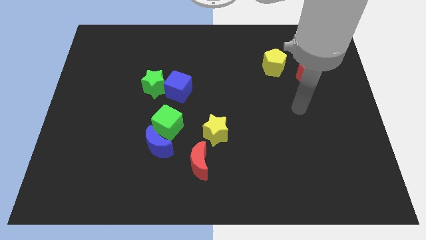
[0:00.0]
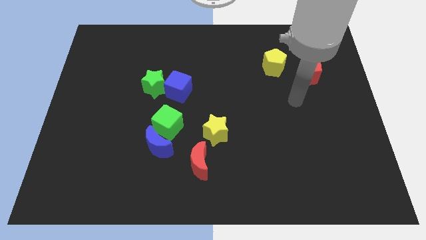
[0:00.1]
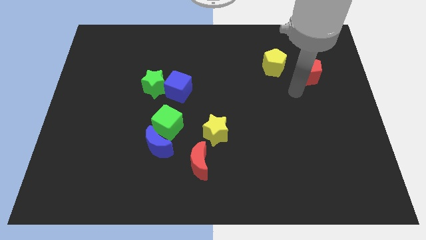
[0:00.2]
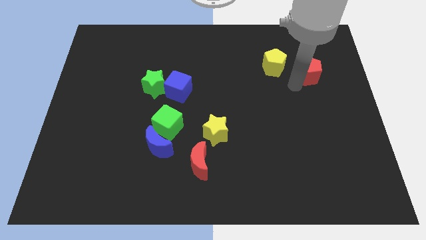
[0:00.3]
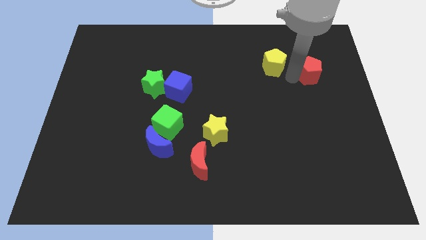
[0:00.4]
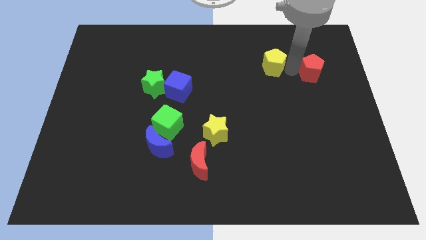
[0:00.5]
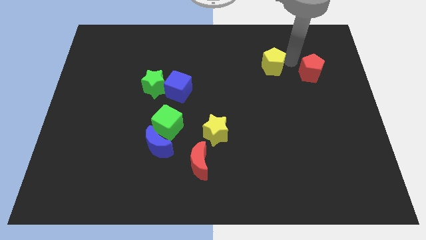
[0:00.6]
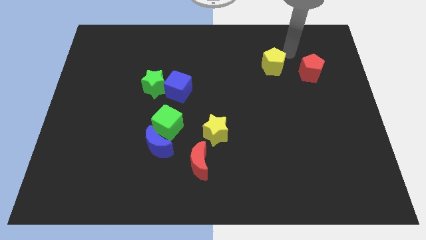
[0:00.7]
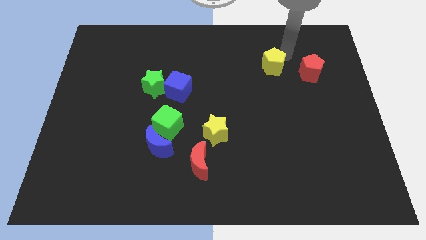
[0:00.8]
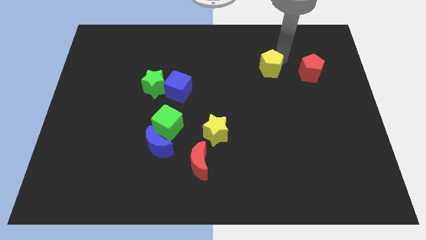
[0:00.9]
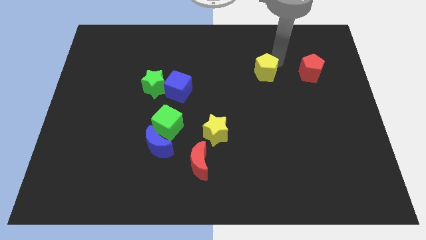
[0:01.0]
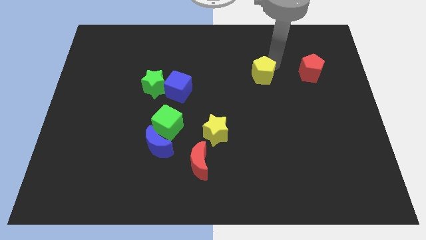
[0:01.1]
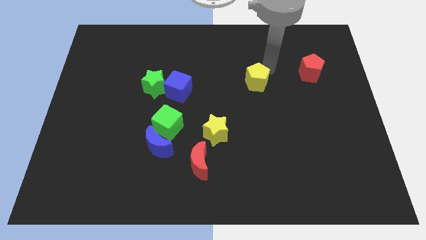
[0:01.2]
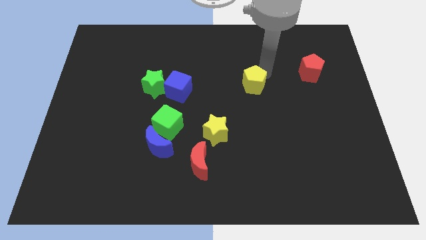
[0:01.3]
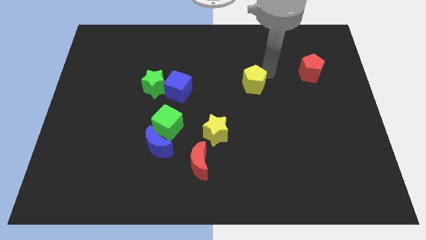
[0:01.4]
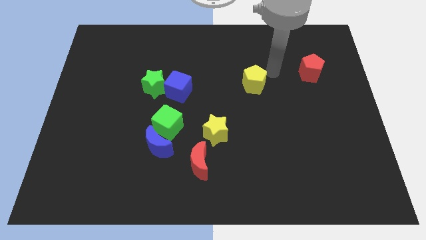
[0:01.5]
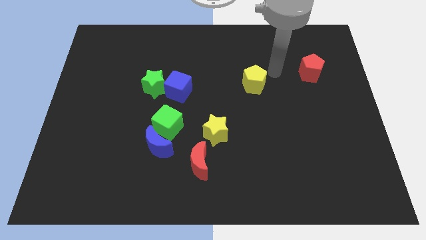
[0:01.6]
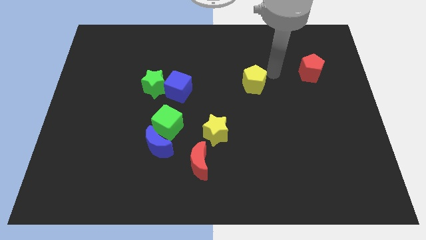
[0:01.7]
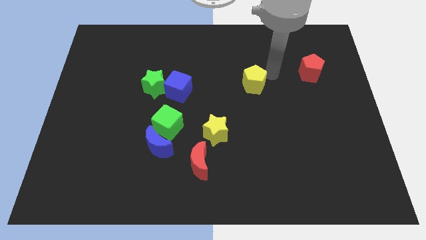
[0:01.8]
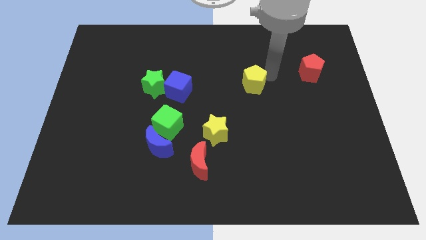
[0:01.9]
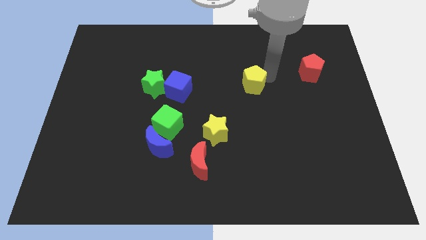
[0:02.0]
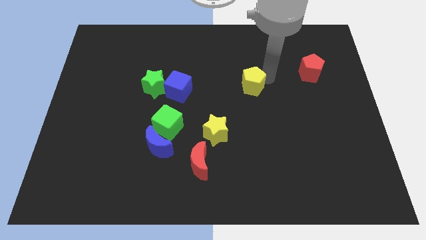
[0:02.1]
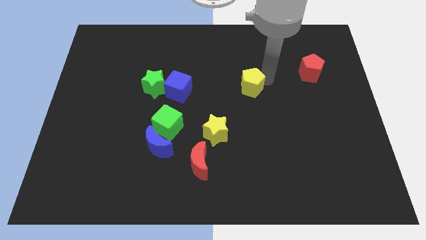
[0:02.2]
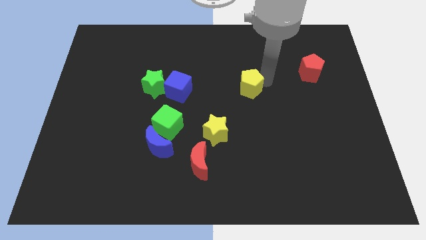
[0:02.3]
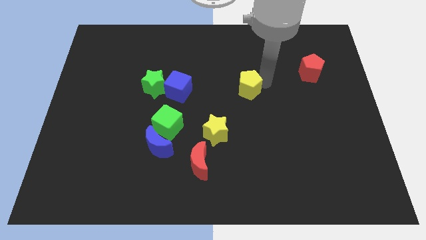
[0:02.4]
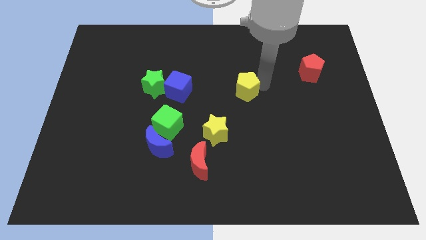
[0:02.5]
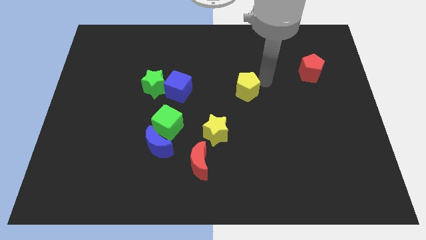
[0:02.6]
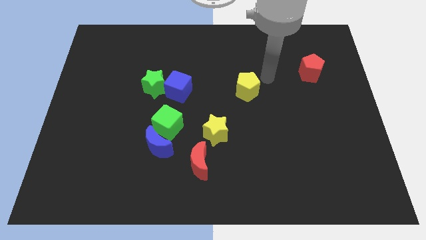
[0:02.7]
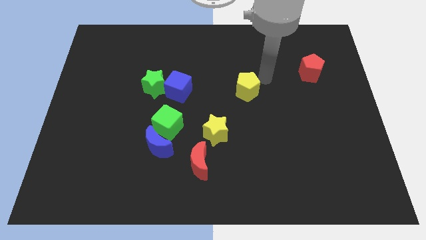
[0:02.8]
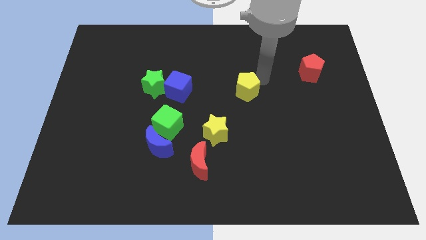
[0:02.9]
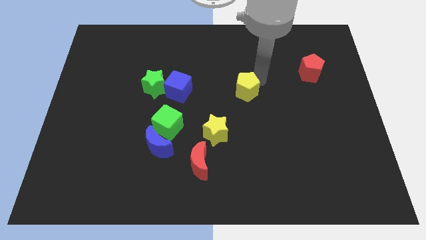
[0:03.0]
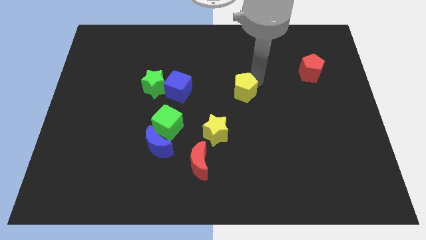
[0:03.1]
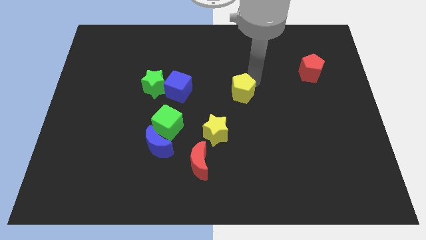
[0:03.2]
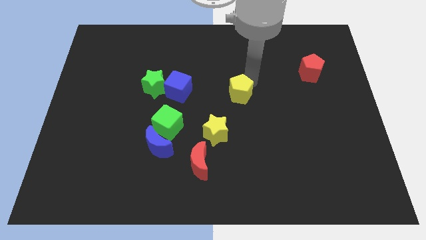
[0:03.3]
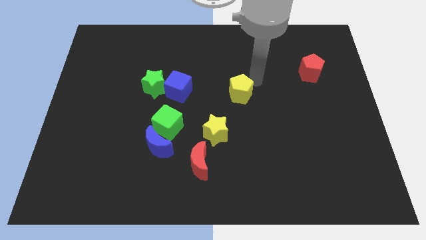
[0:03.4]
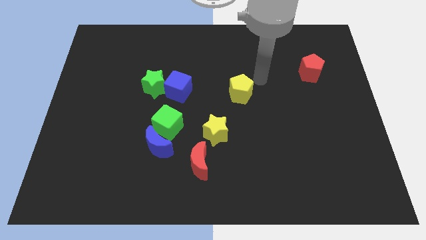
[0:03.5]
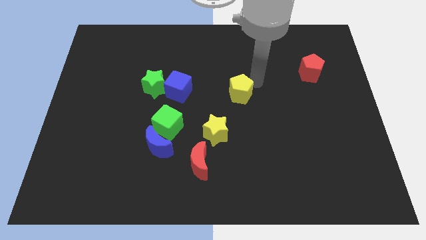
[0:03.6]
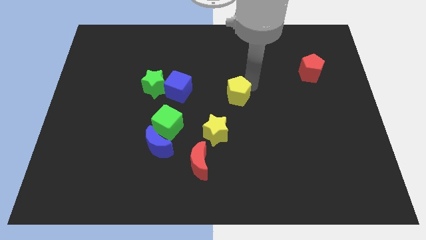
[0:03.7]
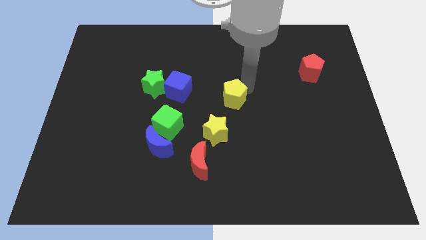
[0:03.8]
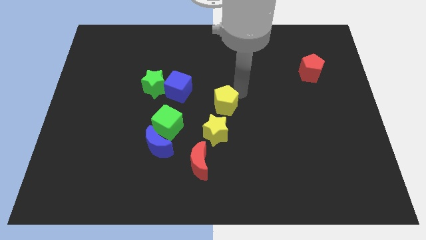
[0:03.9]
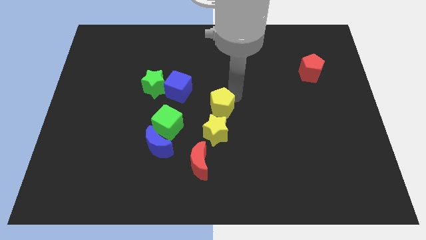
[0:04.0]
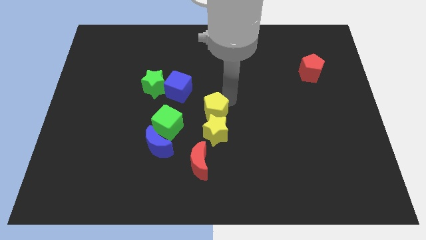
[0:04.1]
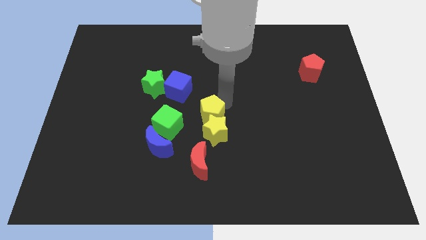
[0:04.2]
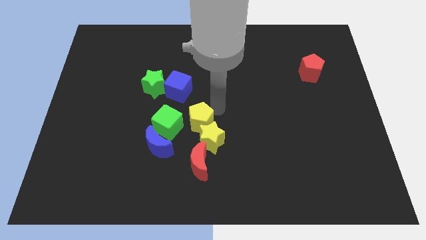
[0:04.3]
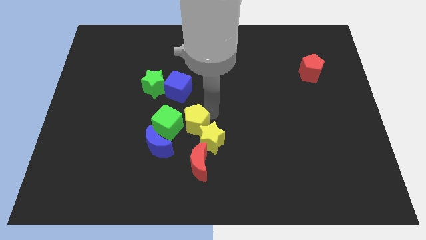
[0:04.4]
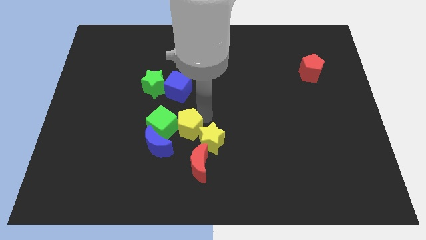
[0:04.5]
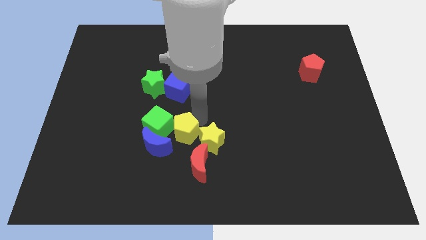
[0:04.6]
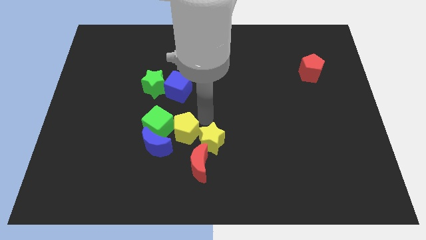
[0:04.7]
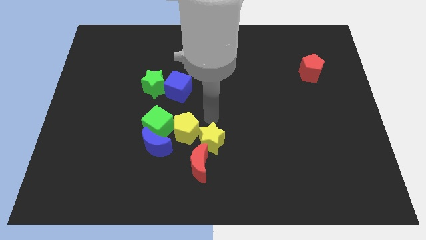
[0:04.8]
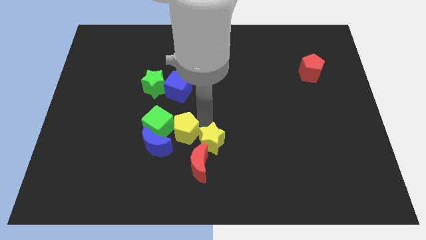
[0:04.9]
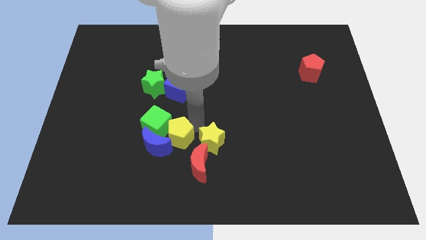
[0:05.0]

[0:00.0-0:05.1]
move the yellow pentagon to the blue moon

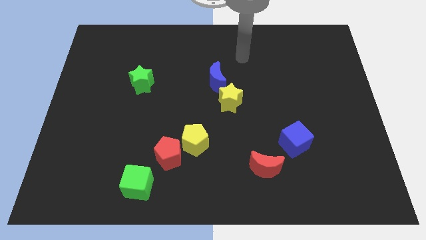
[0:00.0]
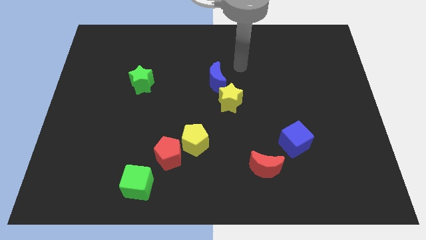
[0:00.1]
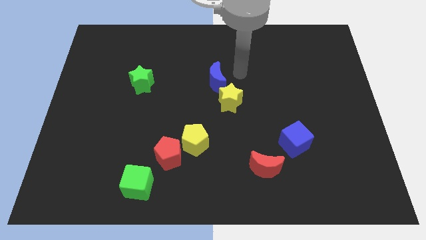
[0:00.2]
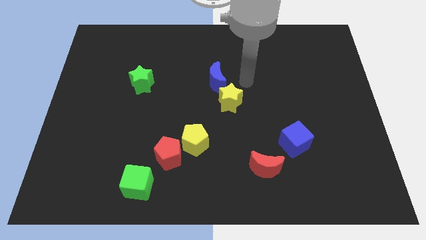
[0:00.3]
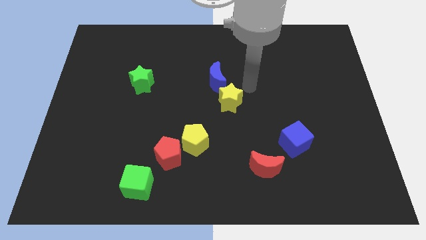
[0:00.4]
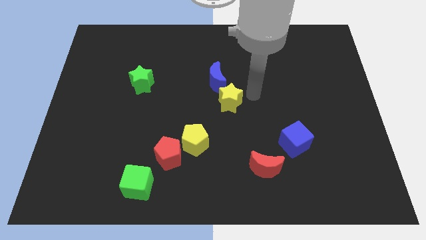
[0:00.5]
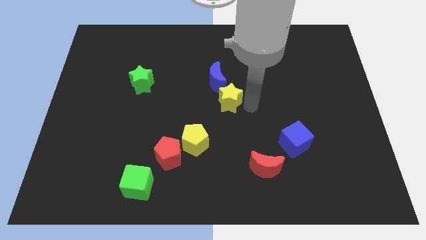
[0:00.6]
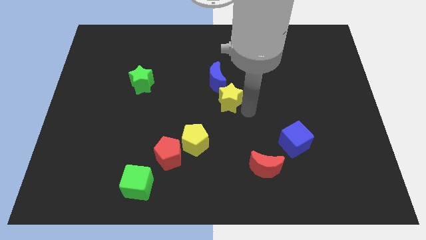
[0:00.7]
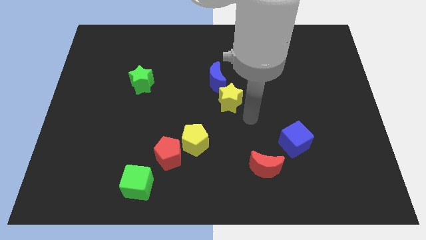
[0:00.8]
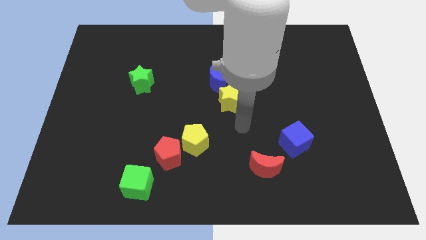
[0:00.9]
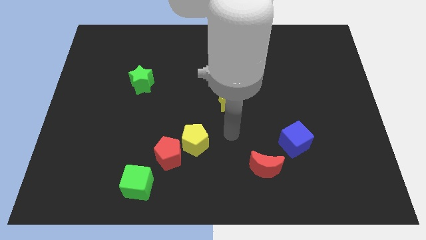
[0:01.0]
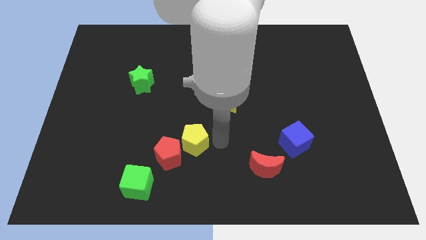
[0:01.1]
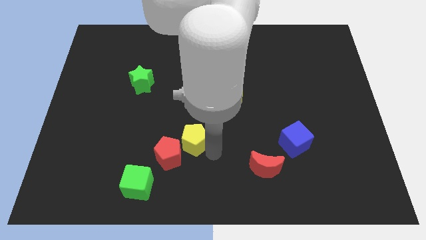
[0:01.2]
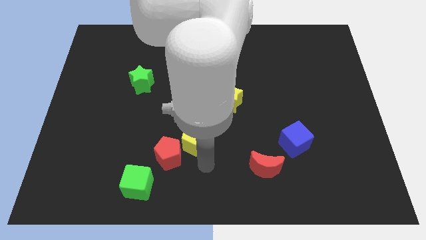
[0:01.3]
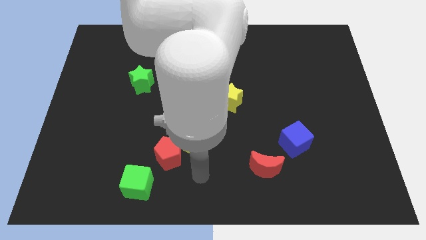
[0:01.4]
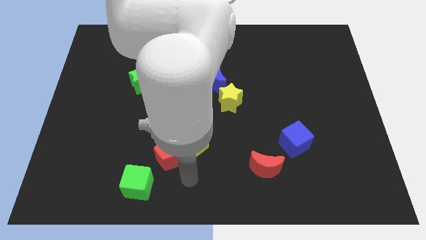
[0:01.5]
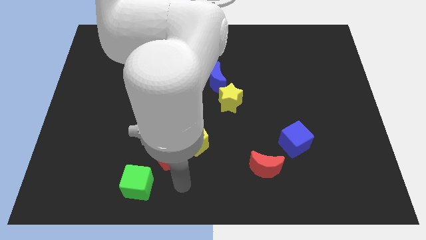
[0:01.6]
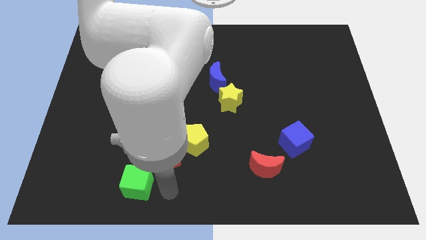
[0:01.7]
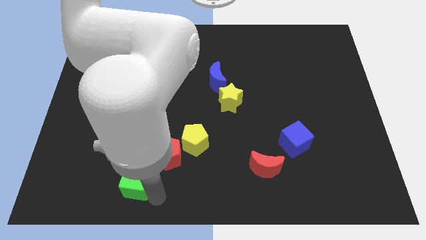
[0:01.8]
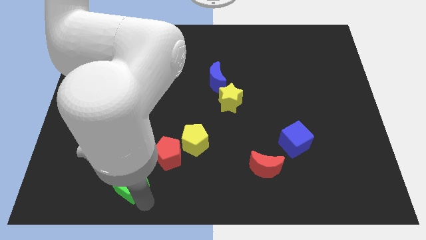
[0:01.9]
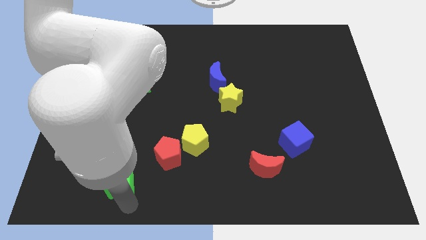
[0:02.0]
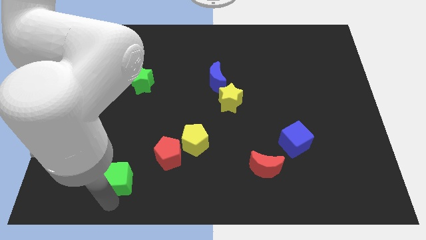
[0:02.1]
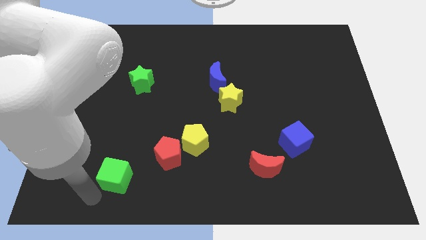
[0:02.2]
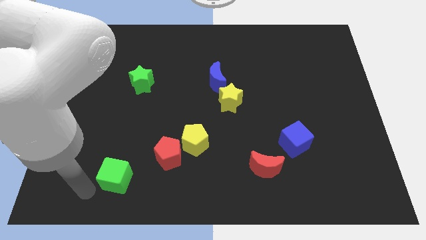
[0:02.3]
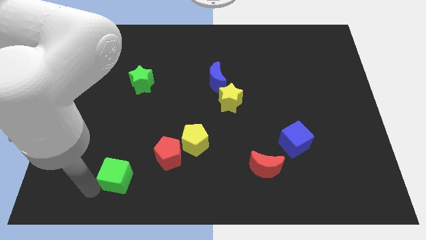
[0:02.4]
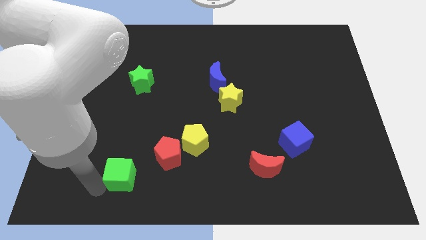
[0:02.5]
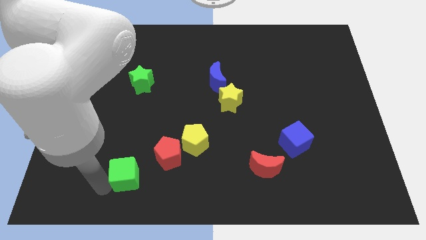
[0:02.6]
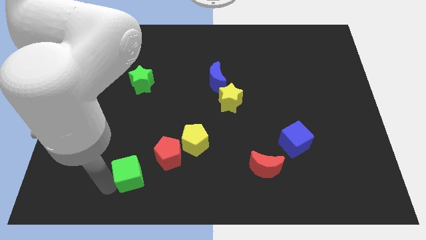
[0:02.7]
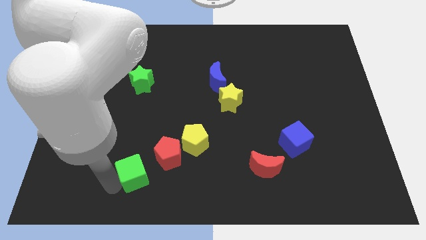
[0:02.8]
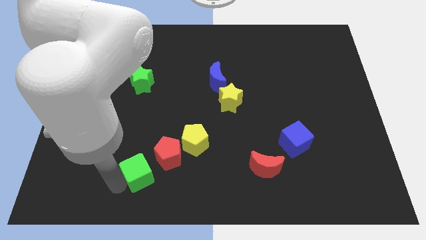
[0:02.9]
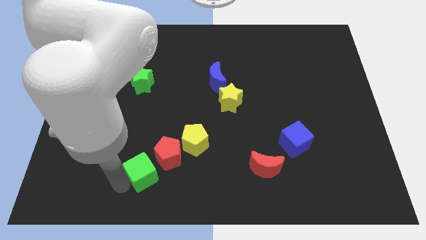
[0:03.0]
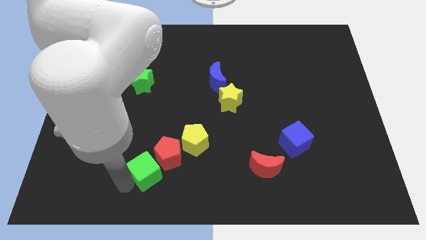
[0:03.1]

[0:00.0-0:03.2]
move the green cube close to the red pentagon

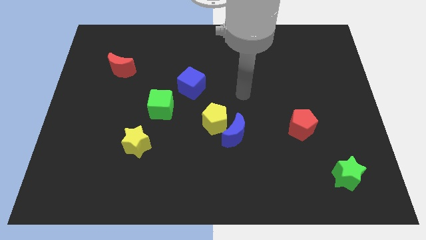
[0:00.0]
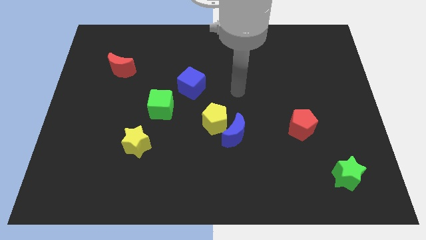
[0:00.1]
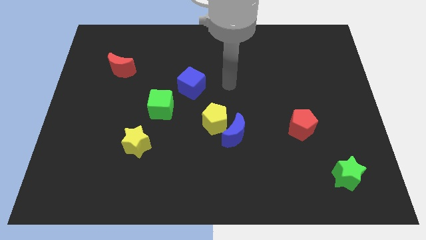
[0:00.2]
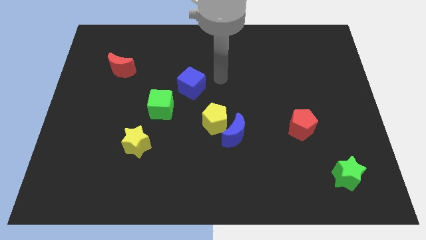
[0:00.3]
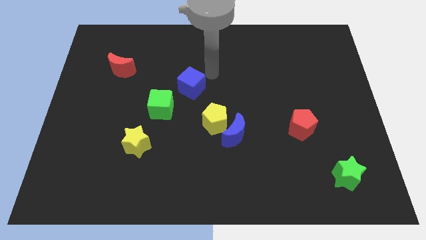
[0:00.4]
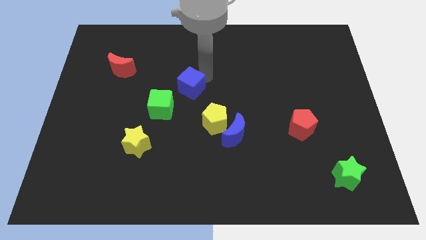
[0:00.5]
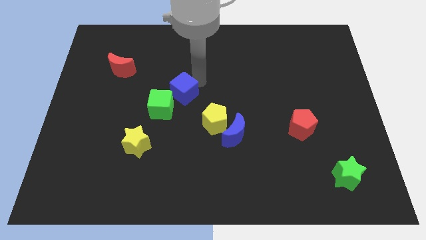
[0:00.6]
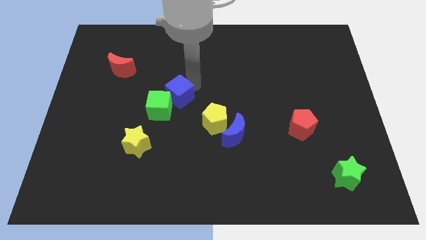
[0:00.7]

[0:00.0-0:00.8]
move the blue cube to the green cube
